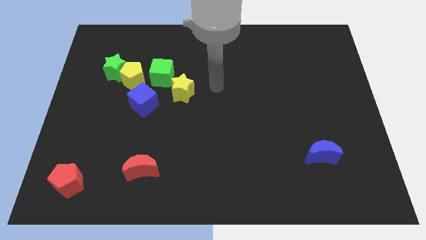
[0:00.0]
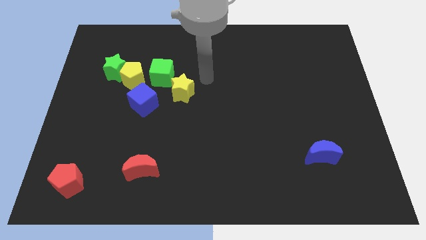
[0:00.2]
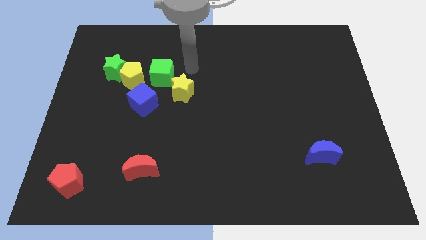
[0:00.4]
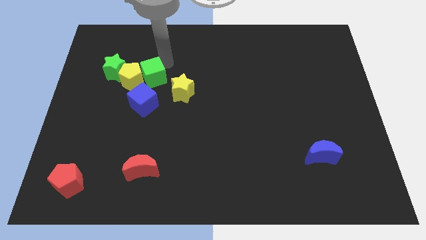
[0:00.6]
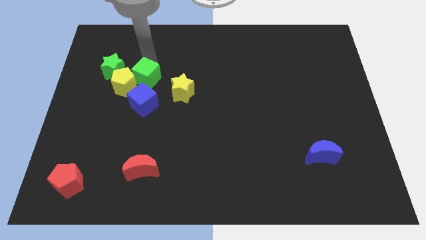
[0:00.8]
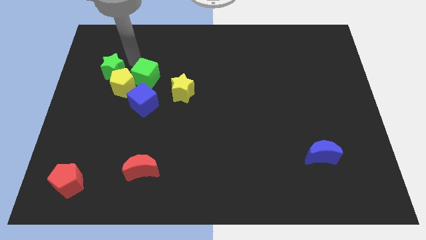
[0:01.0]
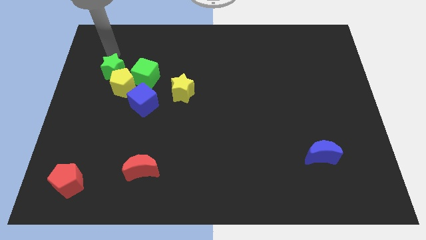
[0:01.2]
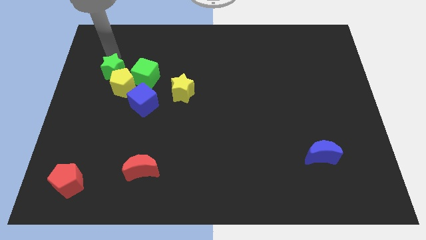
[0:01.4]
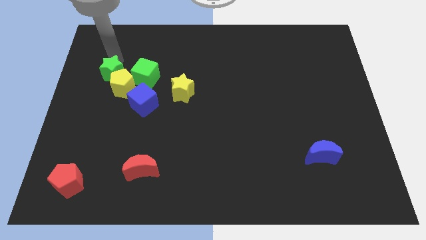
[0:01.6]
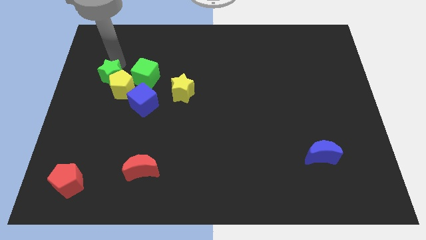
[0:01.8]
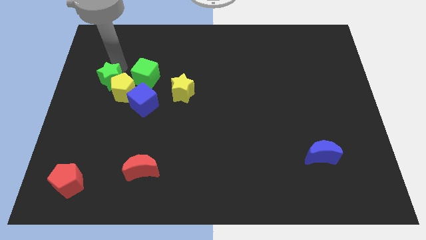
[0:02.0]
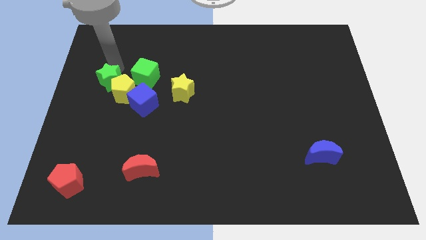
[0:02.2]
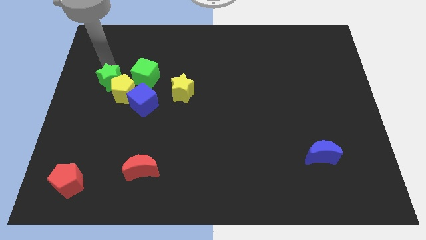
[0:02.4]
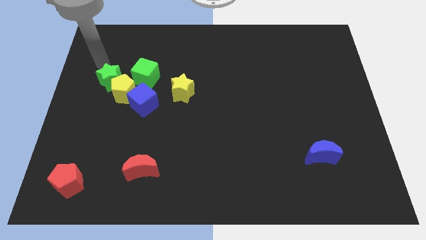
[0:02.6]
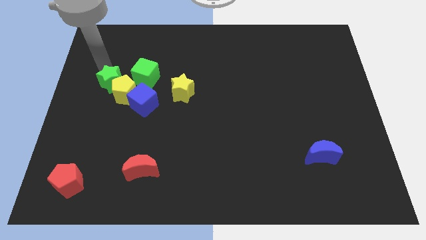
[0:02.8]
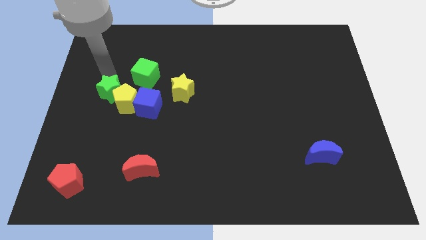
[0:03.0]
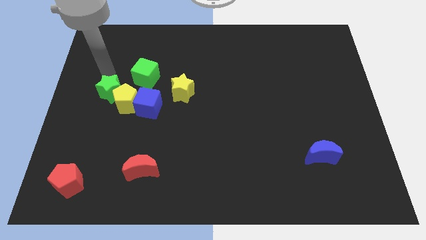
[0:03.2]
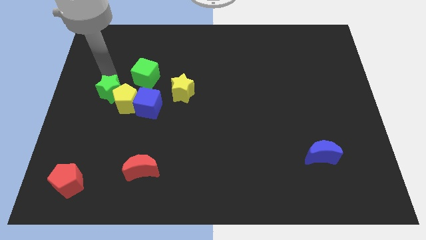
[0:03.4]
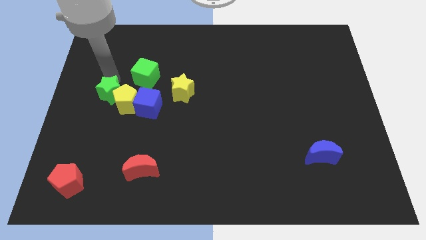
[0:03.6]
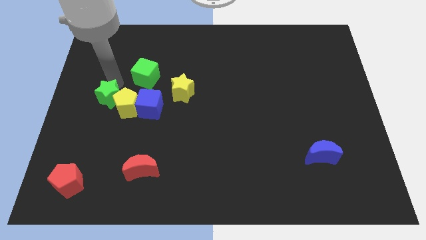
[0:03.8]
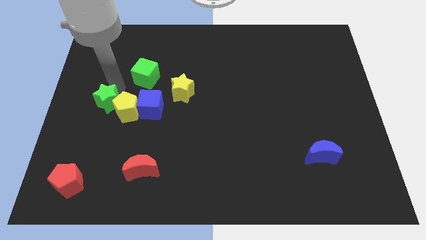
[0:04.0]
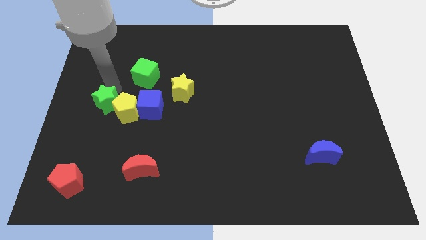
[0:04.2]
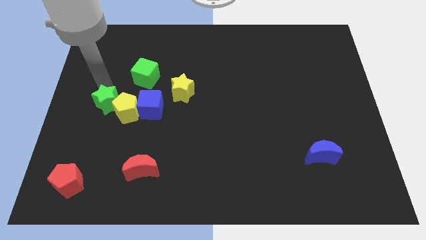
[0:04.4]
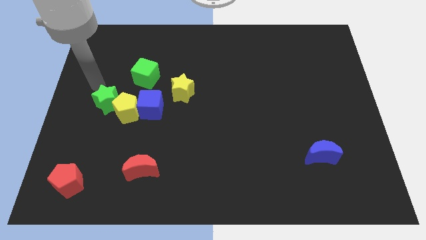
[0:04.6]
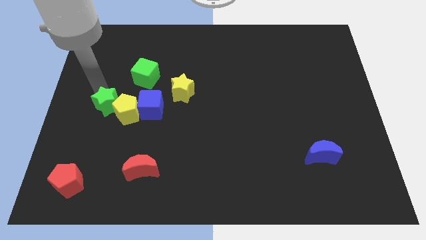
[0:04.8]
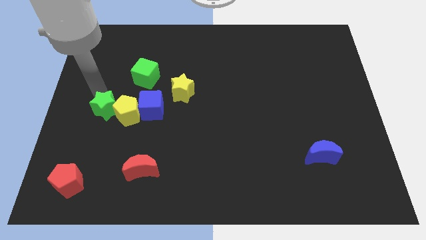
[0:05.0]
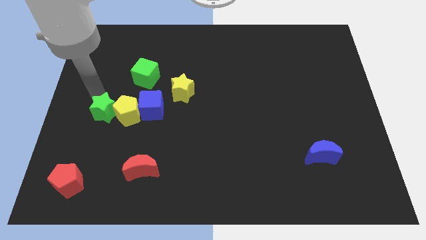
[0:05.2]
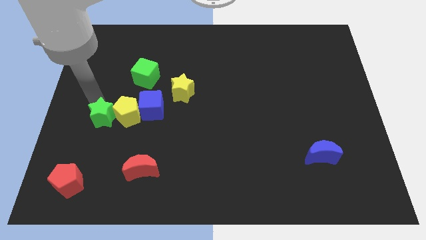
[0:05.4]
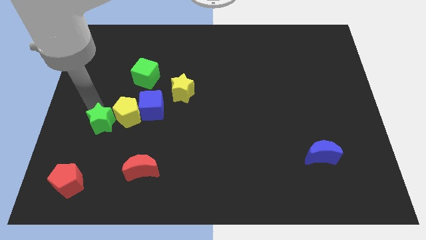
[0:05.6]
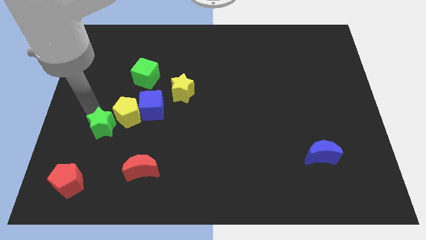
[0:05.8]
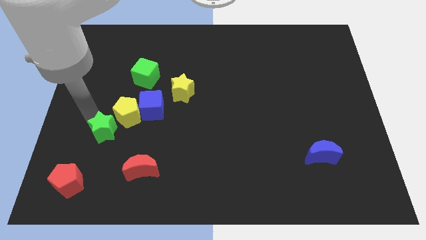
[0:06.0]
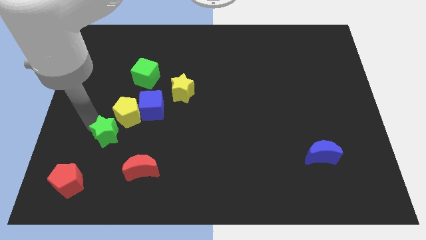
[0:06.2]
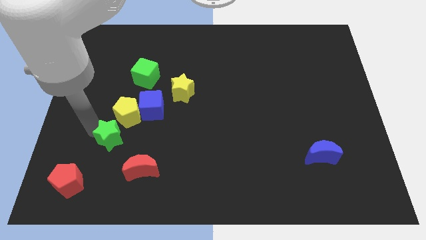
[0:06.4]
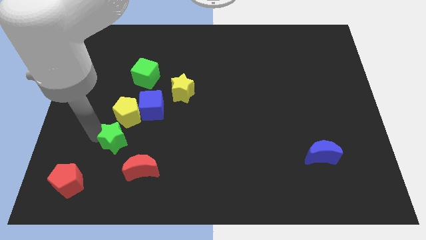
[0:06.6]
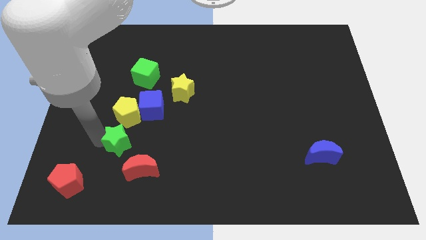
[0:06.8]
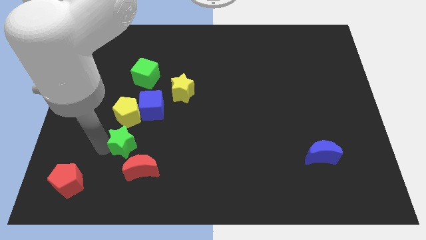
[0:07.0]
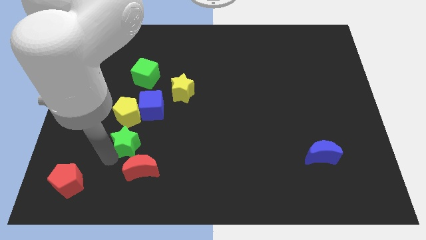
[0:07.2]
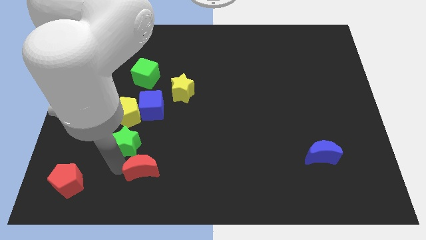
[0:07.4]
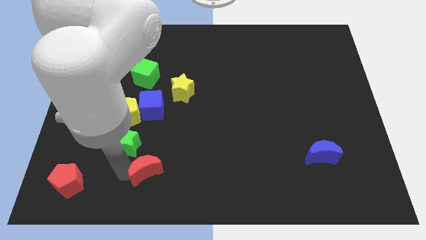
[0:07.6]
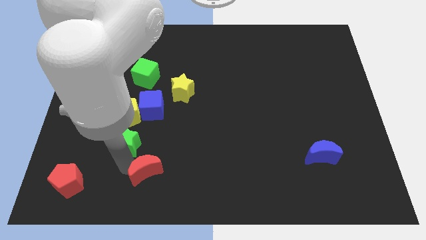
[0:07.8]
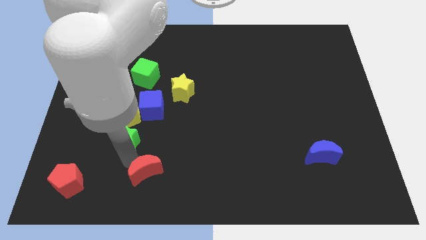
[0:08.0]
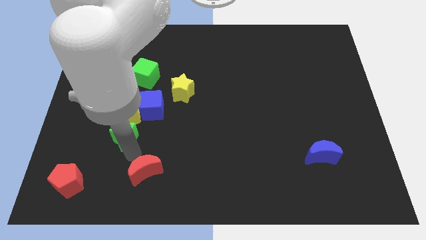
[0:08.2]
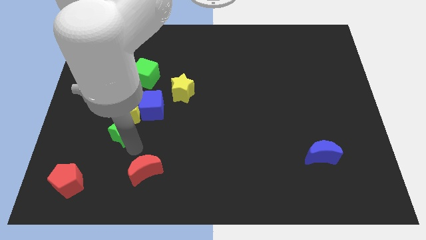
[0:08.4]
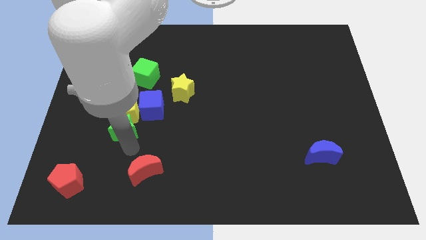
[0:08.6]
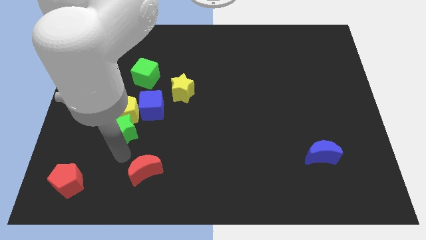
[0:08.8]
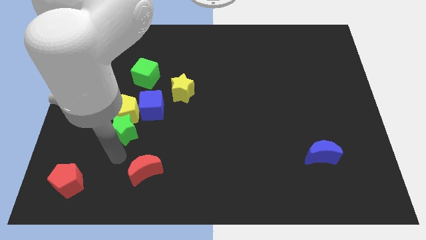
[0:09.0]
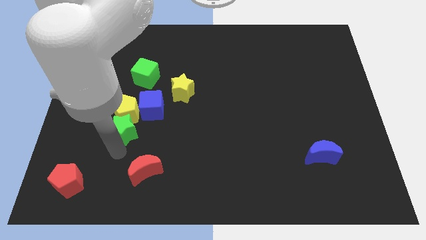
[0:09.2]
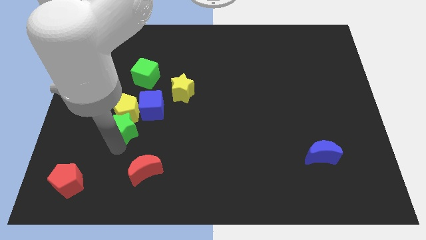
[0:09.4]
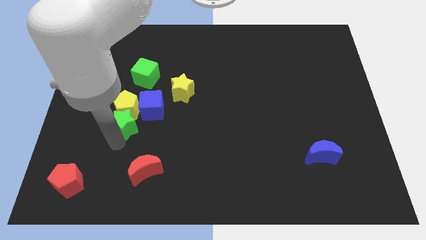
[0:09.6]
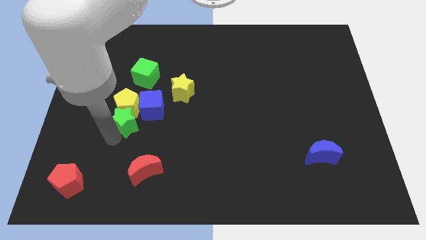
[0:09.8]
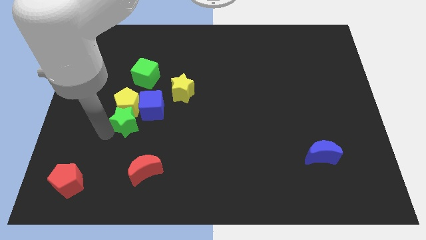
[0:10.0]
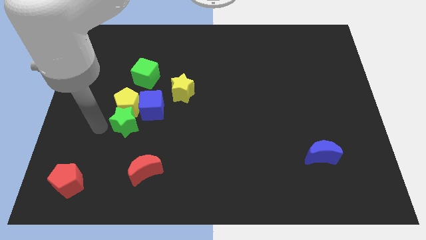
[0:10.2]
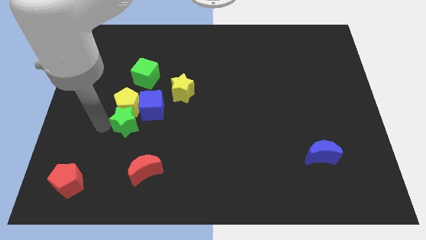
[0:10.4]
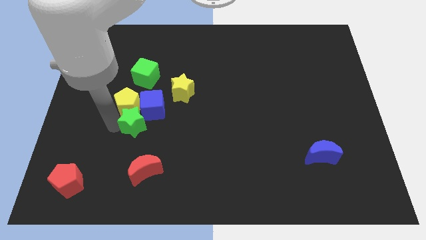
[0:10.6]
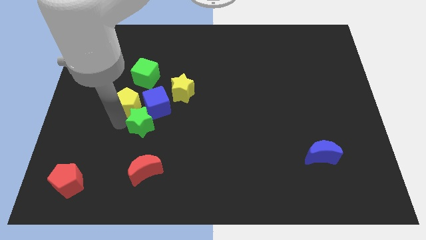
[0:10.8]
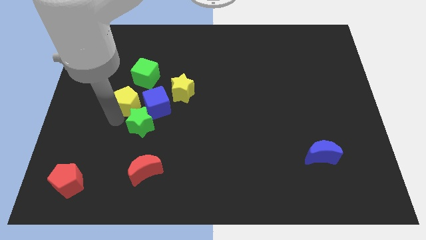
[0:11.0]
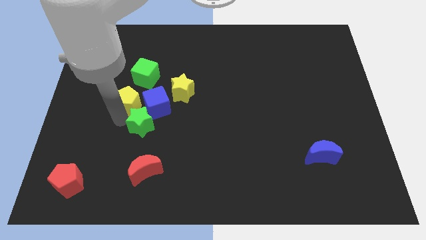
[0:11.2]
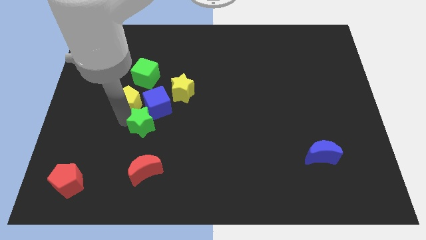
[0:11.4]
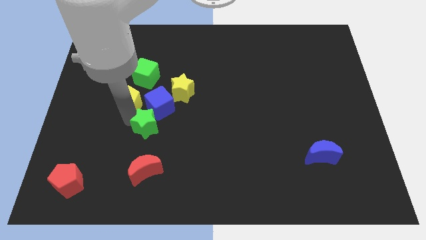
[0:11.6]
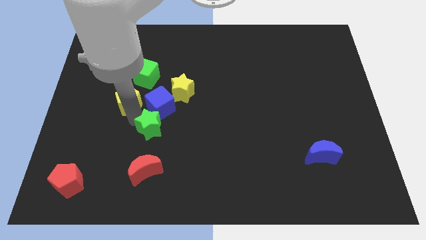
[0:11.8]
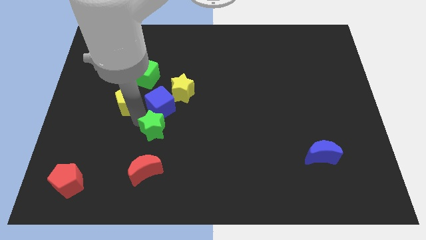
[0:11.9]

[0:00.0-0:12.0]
move the green star downwards and right

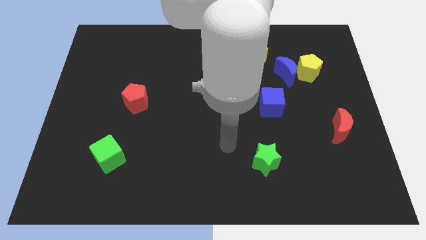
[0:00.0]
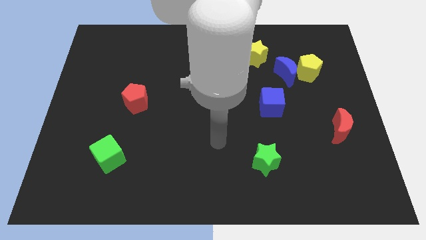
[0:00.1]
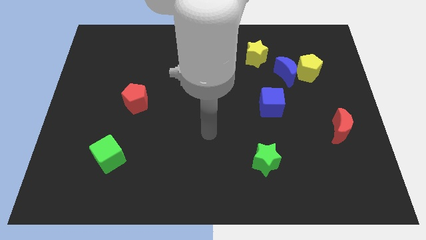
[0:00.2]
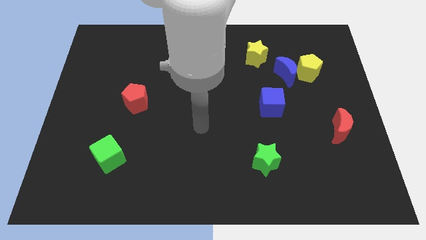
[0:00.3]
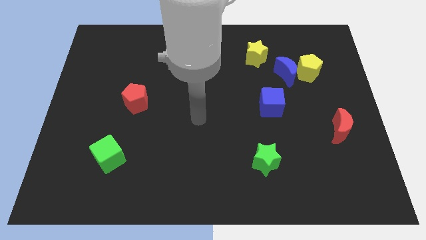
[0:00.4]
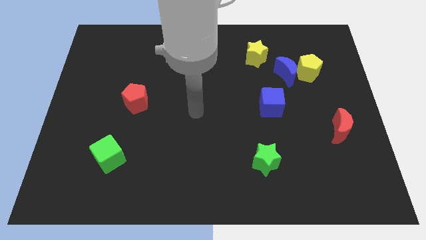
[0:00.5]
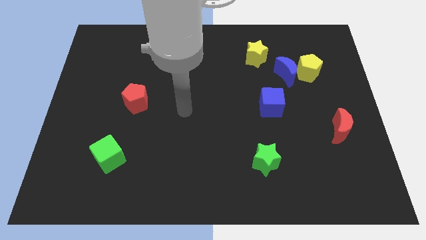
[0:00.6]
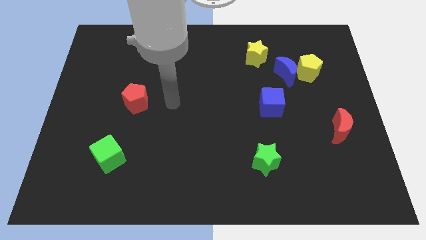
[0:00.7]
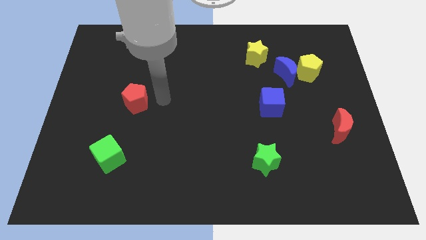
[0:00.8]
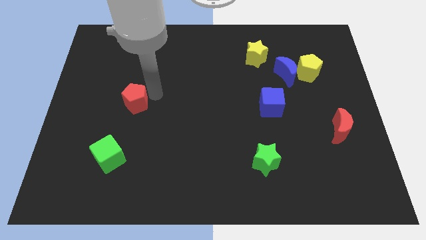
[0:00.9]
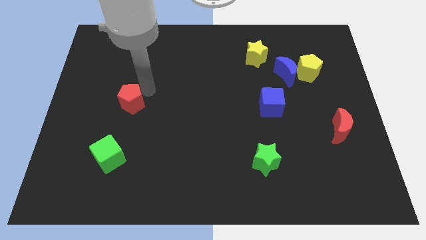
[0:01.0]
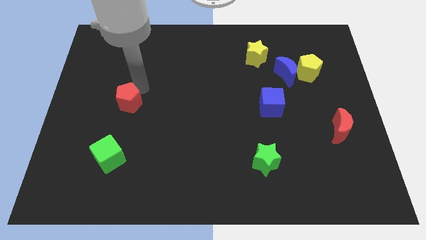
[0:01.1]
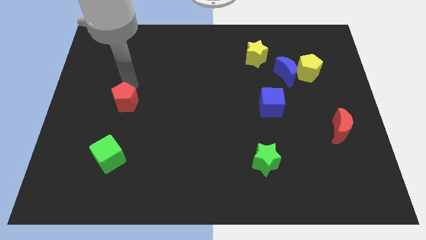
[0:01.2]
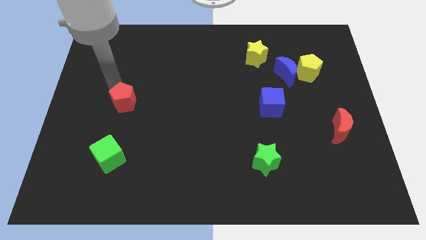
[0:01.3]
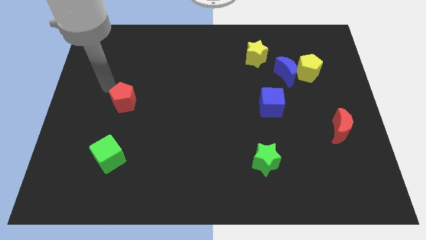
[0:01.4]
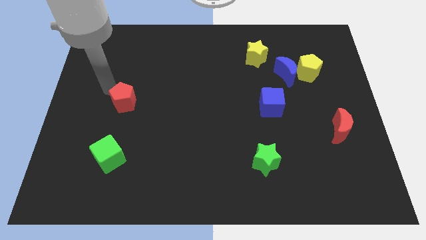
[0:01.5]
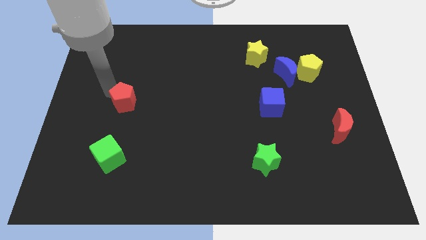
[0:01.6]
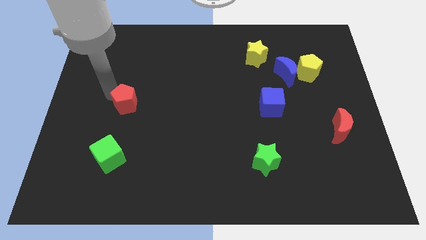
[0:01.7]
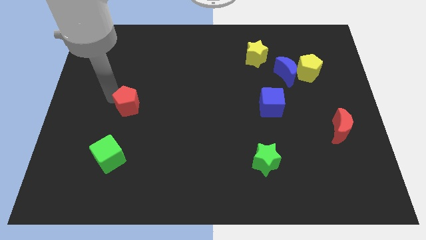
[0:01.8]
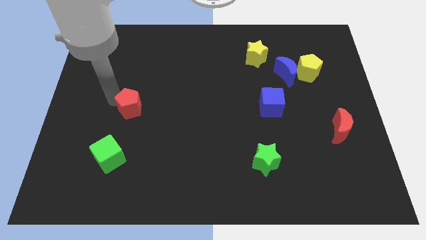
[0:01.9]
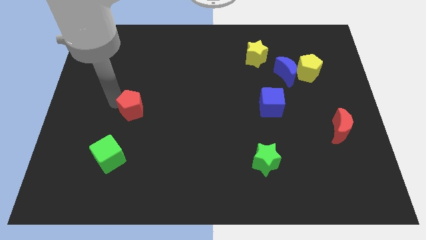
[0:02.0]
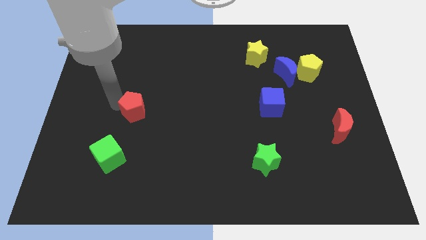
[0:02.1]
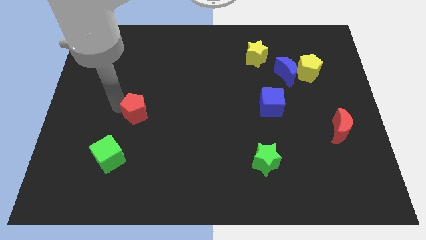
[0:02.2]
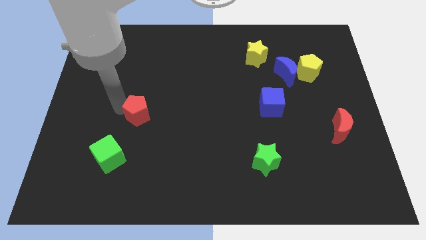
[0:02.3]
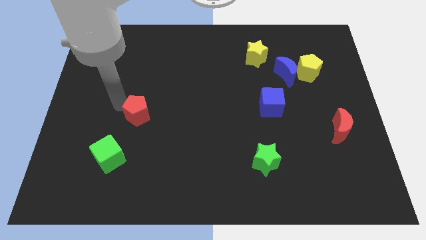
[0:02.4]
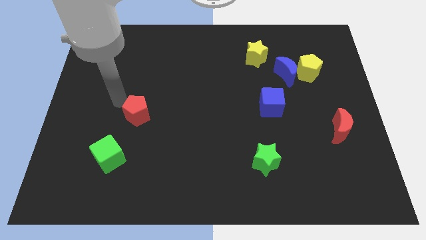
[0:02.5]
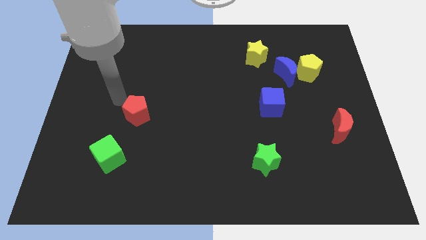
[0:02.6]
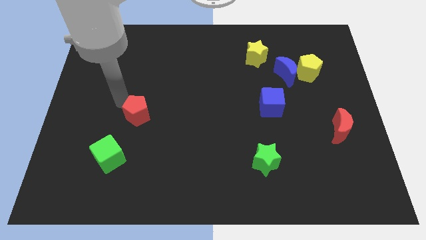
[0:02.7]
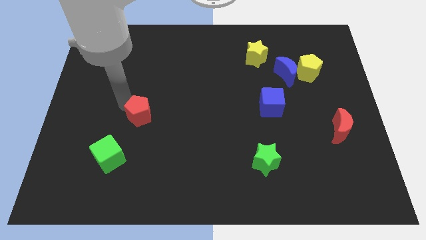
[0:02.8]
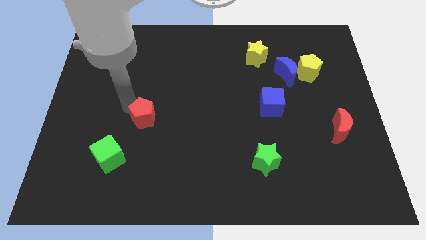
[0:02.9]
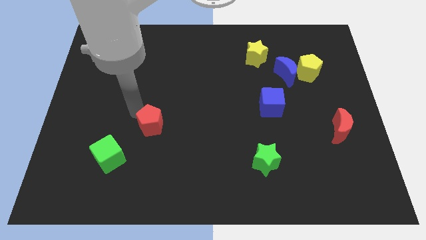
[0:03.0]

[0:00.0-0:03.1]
push the red pentagon downwards and then to the right somewhat
